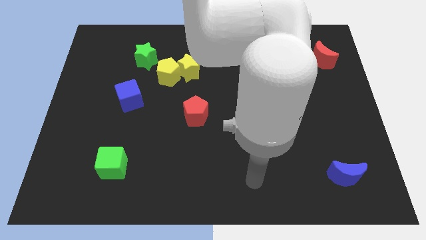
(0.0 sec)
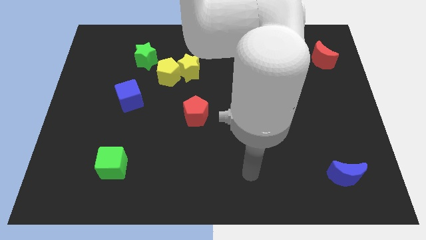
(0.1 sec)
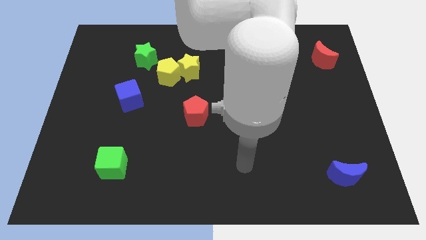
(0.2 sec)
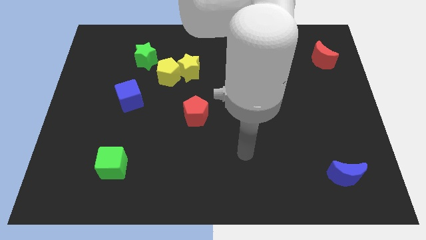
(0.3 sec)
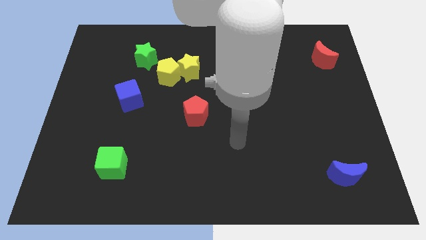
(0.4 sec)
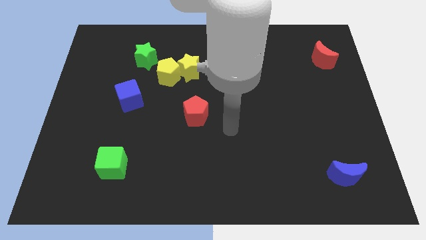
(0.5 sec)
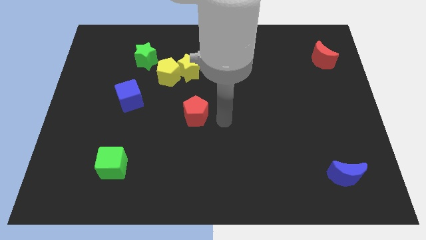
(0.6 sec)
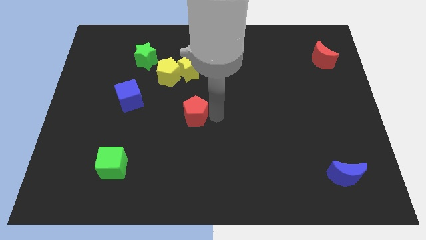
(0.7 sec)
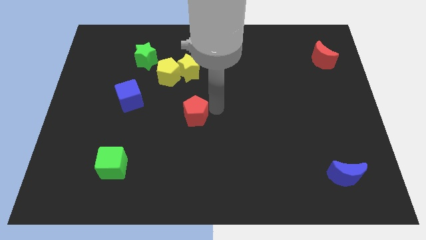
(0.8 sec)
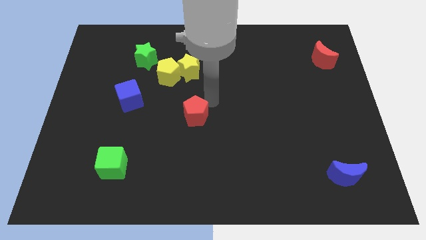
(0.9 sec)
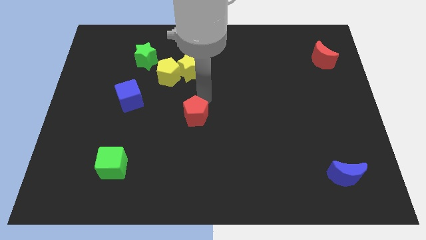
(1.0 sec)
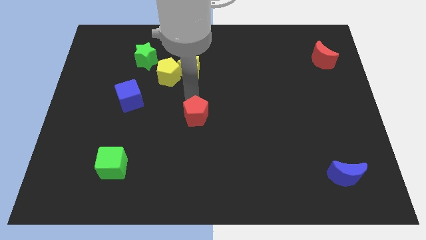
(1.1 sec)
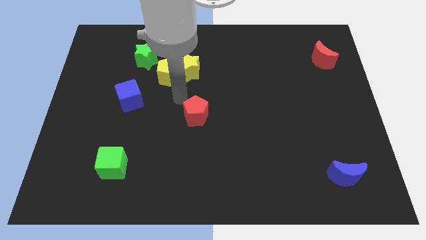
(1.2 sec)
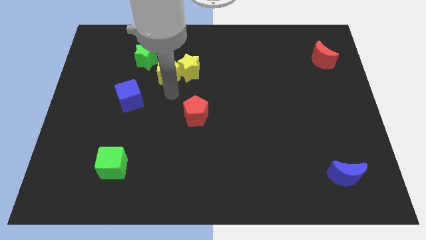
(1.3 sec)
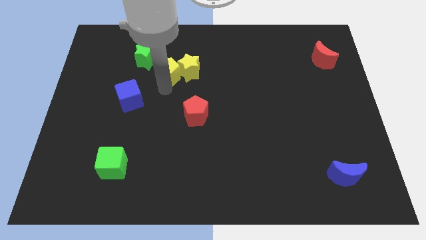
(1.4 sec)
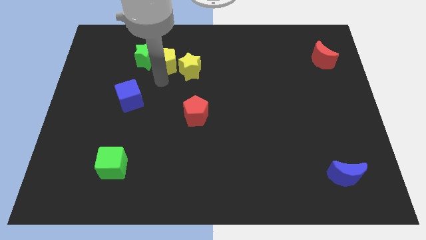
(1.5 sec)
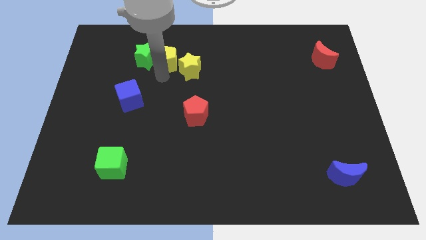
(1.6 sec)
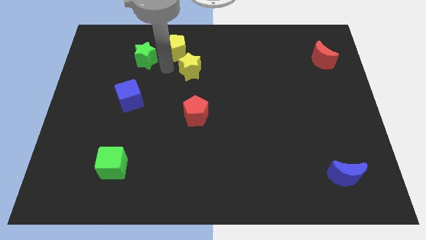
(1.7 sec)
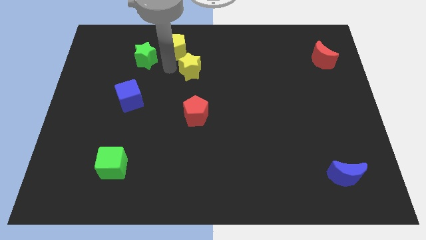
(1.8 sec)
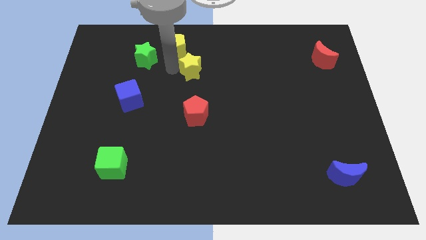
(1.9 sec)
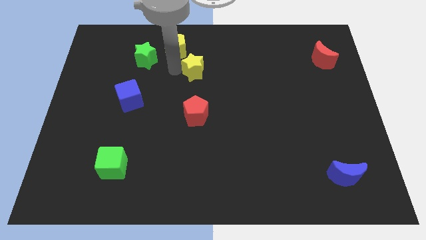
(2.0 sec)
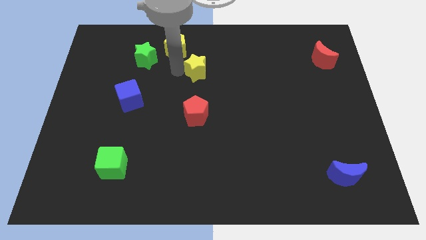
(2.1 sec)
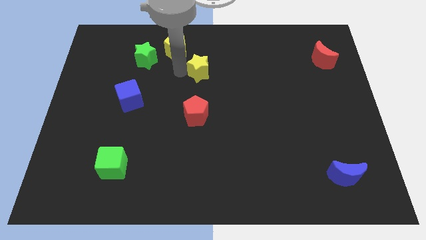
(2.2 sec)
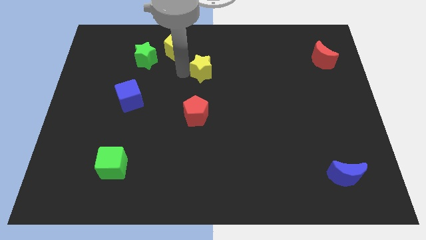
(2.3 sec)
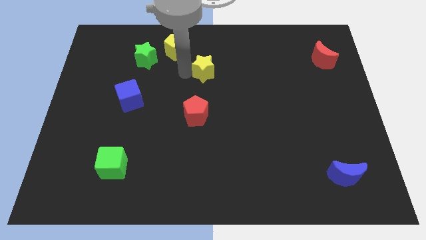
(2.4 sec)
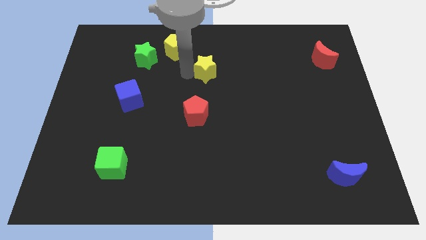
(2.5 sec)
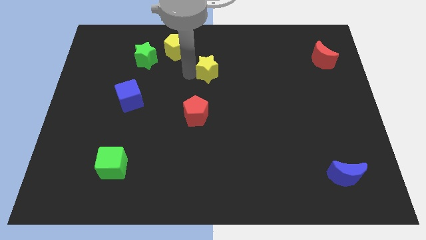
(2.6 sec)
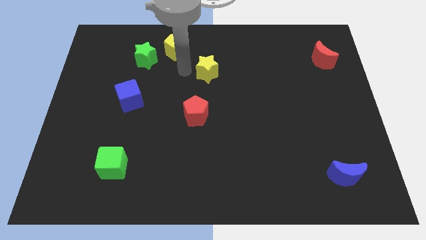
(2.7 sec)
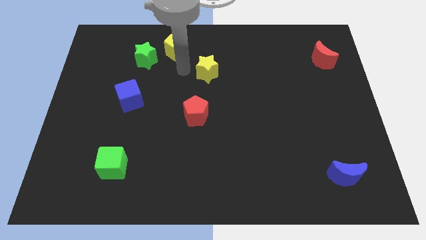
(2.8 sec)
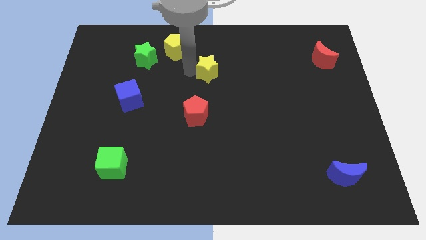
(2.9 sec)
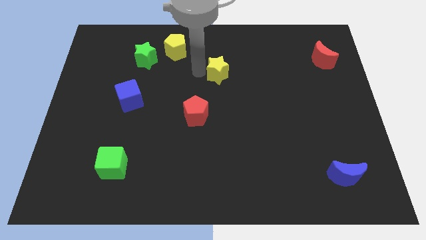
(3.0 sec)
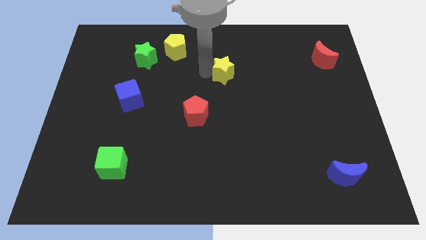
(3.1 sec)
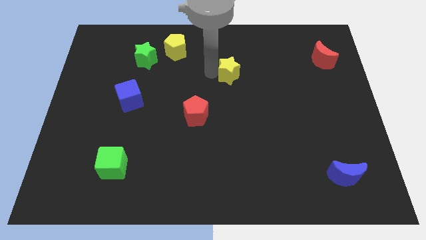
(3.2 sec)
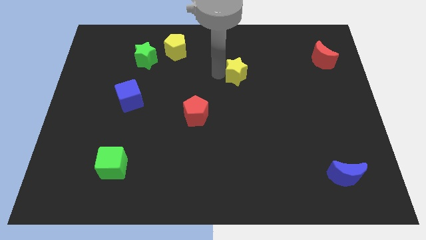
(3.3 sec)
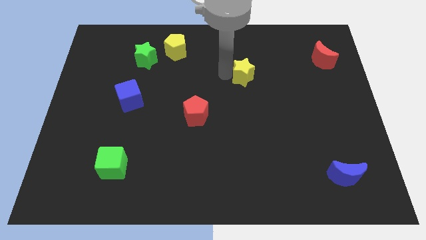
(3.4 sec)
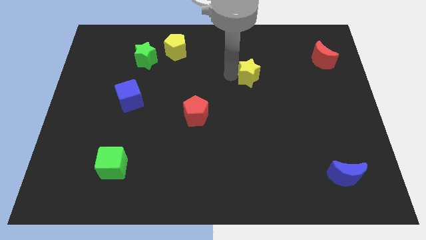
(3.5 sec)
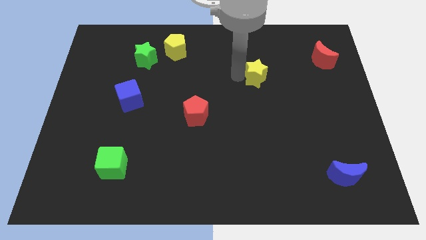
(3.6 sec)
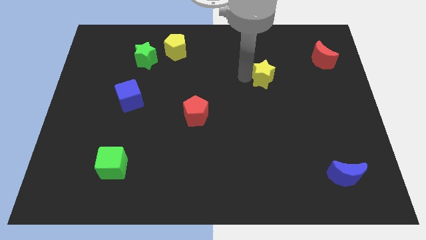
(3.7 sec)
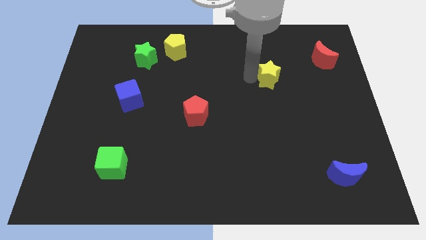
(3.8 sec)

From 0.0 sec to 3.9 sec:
slide the yellow star right

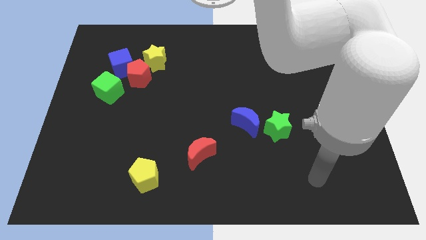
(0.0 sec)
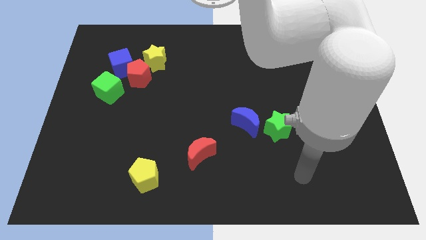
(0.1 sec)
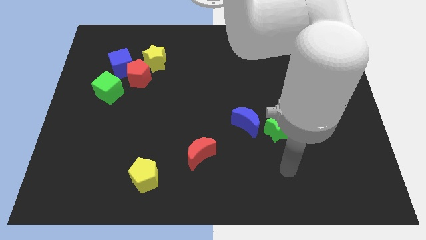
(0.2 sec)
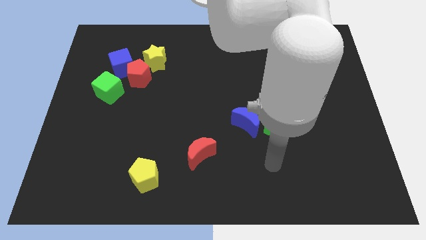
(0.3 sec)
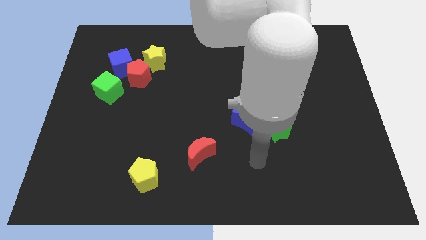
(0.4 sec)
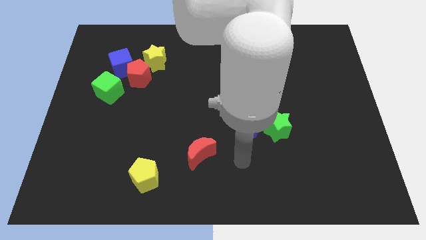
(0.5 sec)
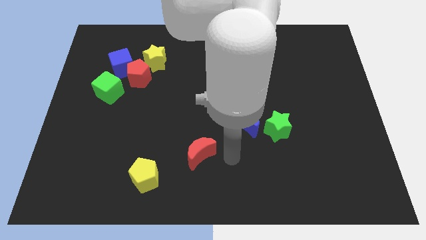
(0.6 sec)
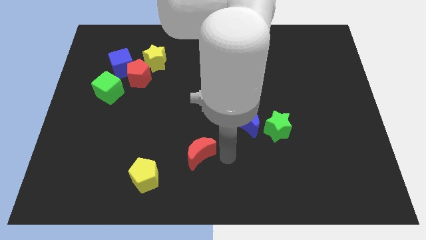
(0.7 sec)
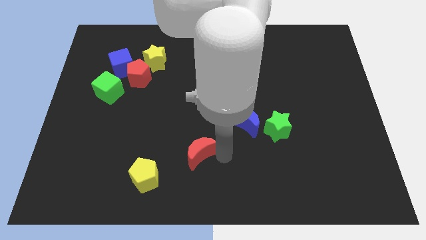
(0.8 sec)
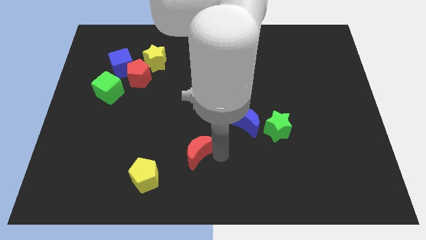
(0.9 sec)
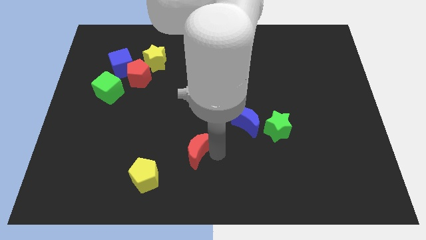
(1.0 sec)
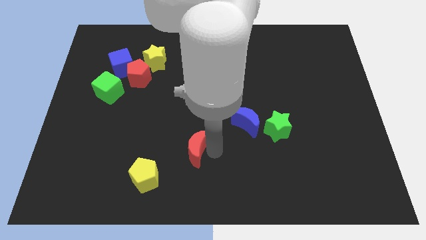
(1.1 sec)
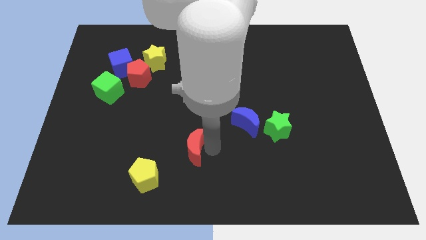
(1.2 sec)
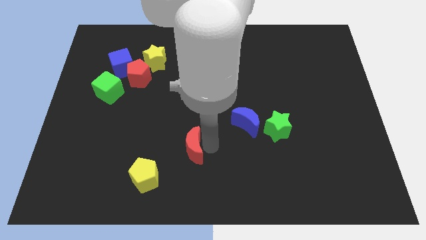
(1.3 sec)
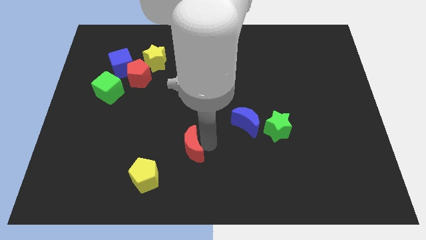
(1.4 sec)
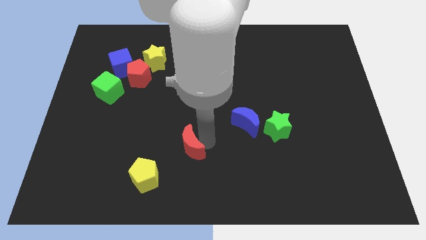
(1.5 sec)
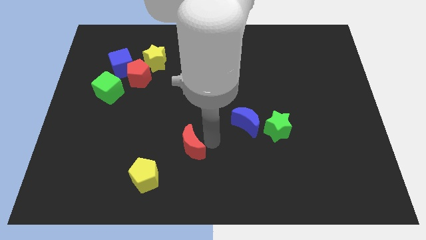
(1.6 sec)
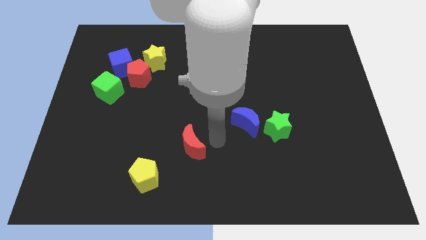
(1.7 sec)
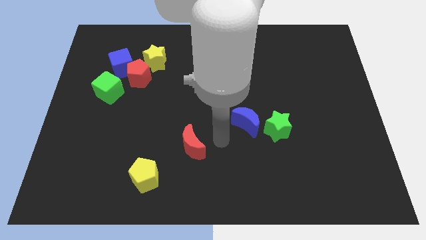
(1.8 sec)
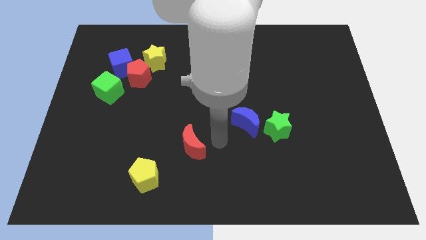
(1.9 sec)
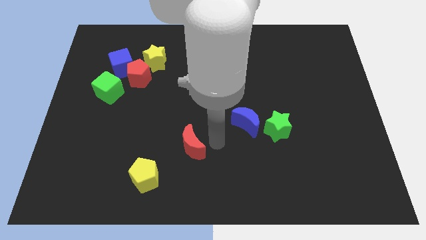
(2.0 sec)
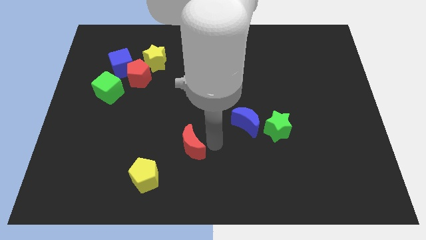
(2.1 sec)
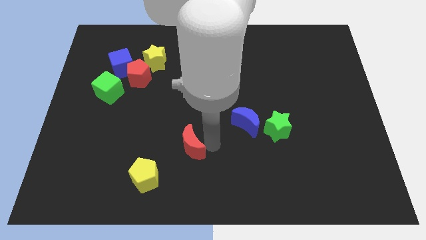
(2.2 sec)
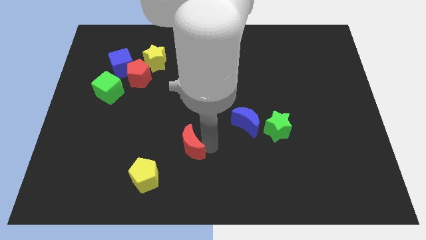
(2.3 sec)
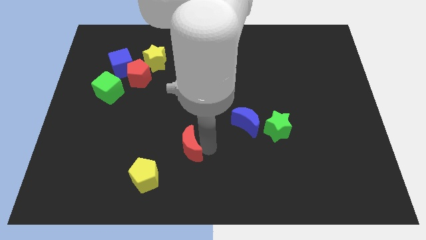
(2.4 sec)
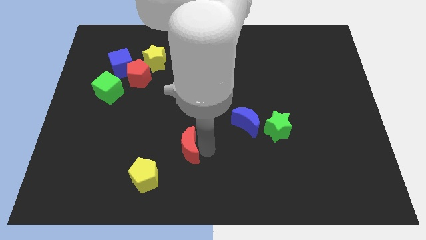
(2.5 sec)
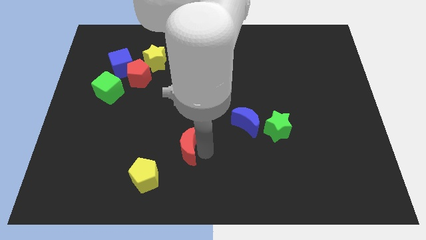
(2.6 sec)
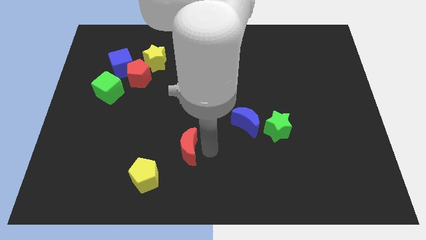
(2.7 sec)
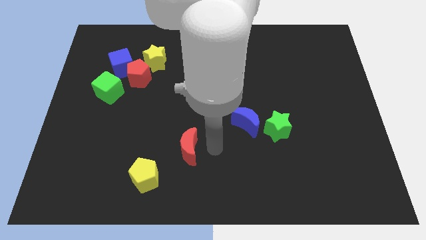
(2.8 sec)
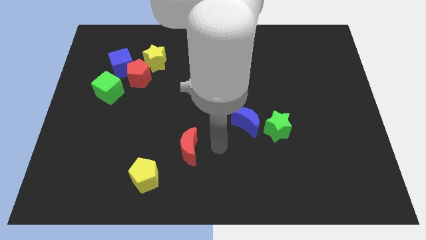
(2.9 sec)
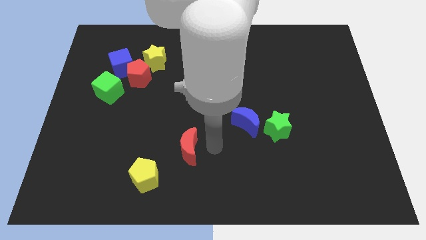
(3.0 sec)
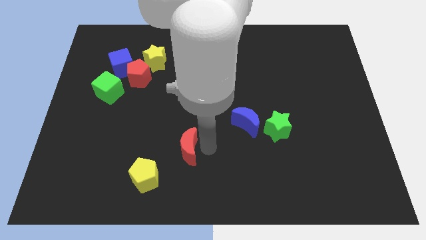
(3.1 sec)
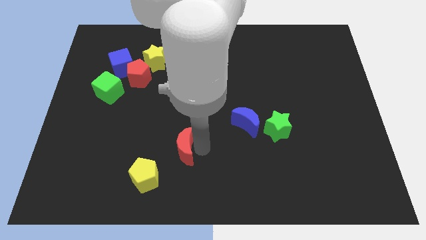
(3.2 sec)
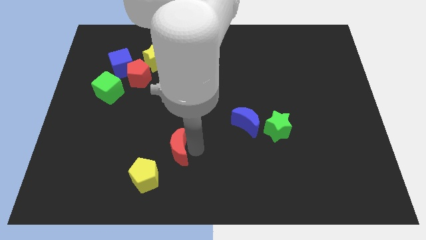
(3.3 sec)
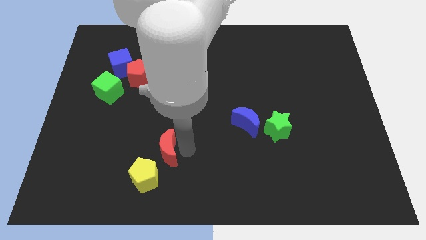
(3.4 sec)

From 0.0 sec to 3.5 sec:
slide the red moon to the left somewhat

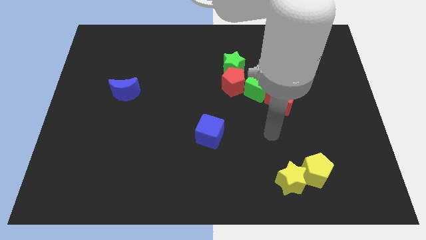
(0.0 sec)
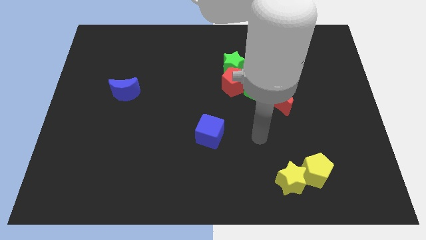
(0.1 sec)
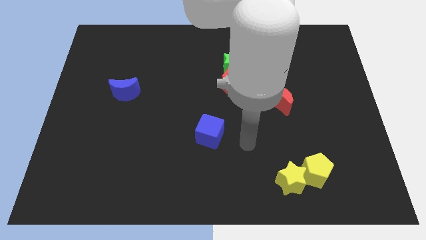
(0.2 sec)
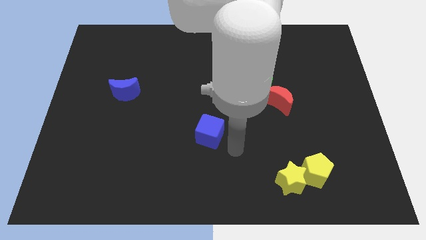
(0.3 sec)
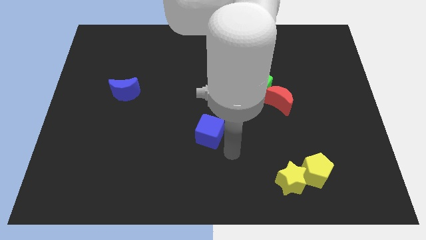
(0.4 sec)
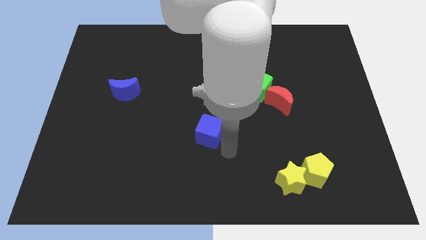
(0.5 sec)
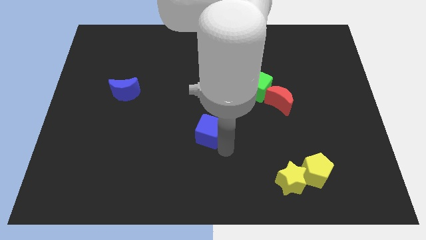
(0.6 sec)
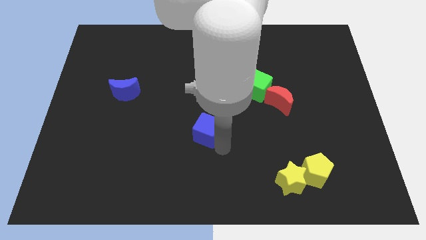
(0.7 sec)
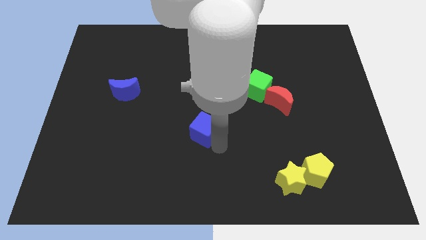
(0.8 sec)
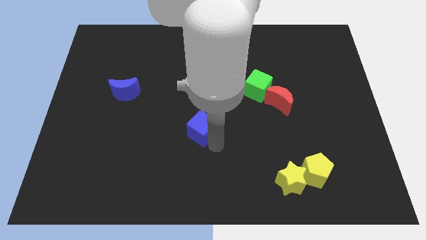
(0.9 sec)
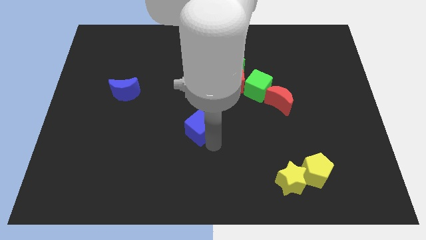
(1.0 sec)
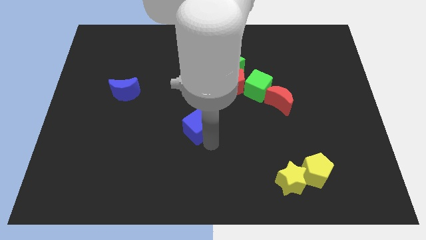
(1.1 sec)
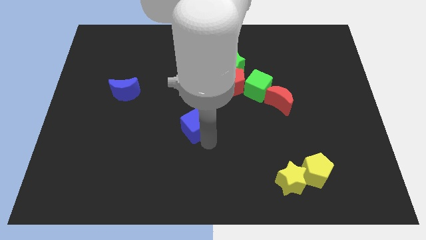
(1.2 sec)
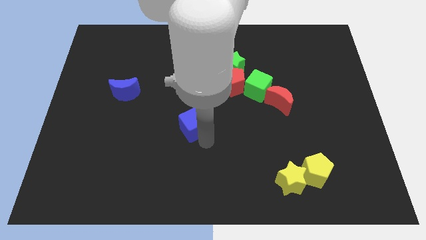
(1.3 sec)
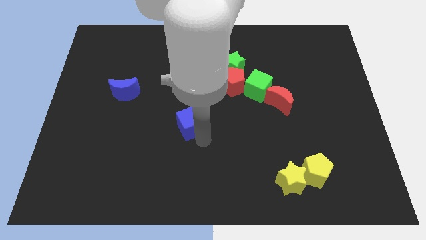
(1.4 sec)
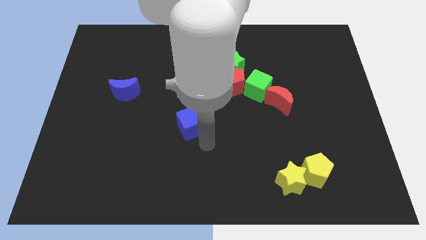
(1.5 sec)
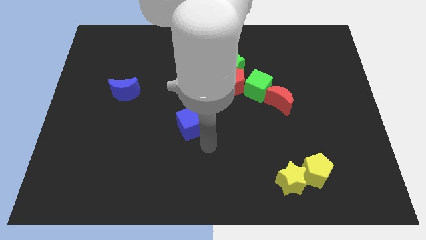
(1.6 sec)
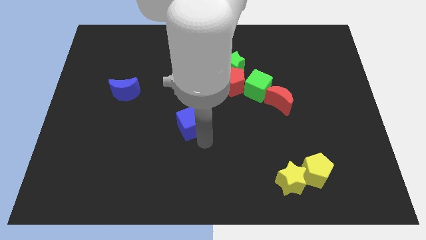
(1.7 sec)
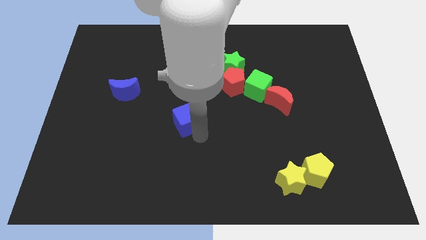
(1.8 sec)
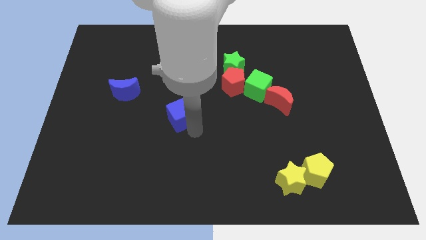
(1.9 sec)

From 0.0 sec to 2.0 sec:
slightly move the blue cube upwards and to the left
